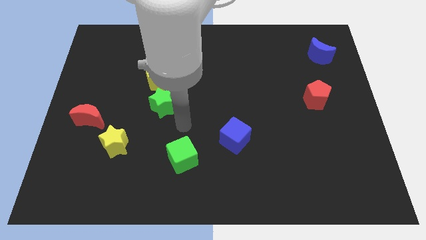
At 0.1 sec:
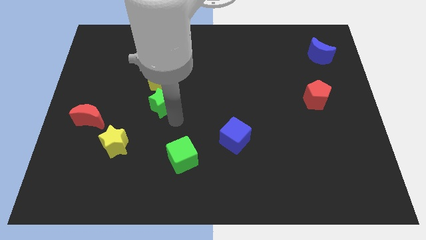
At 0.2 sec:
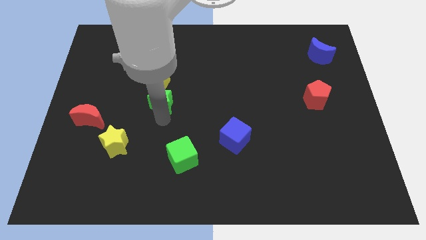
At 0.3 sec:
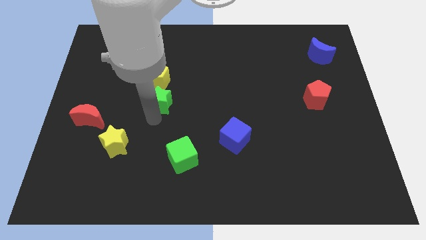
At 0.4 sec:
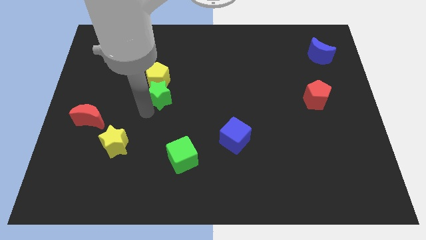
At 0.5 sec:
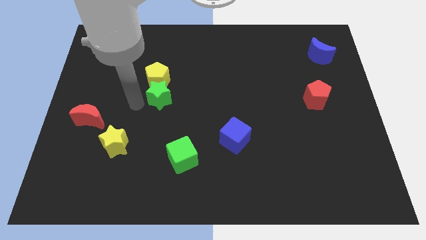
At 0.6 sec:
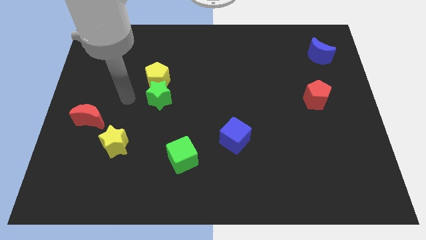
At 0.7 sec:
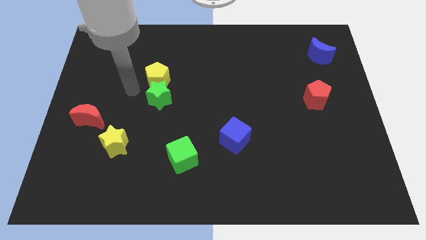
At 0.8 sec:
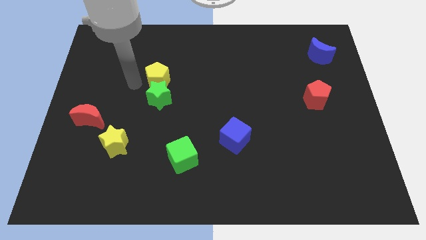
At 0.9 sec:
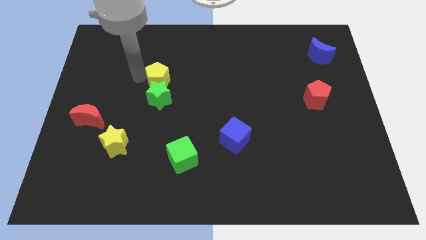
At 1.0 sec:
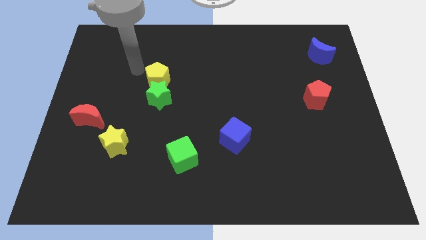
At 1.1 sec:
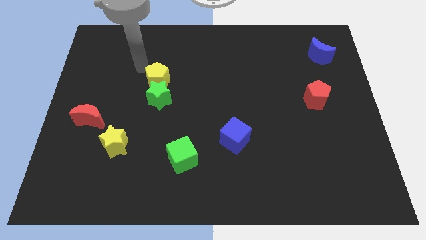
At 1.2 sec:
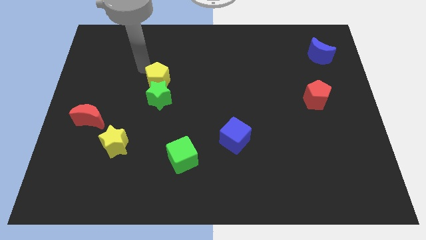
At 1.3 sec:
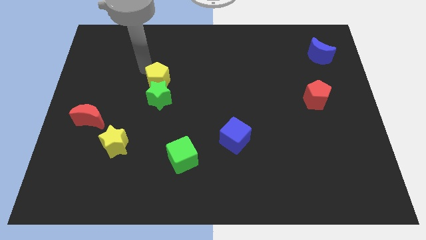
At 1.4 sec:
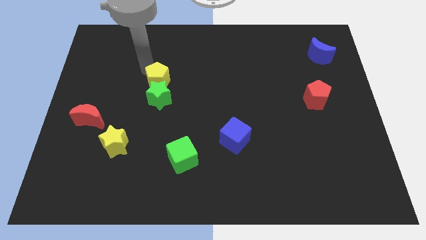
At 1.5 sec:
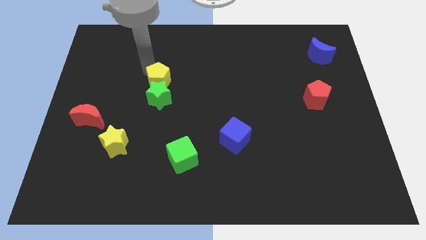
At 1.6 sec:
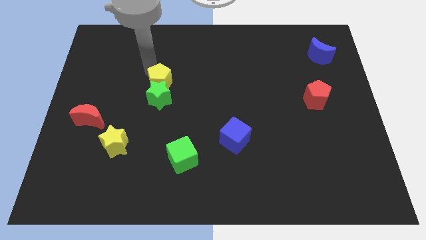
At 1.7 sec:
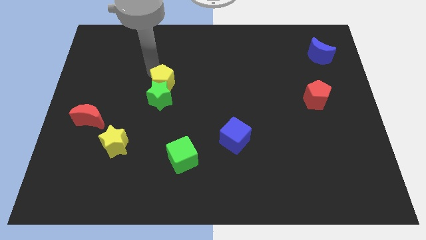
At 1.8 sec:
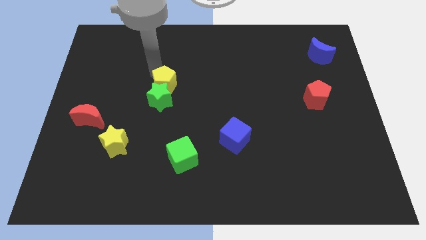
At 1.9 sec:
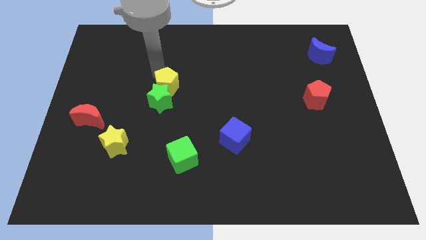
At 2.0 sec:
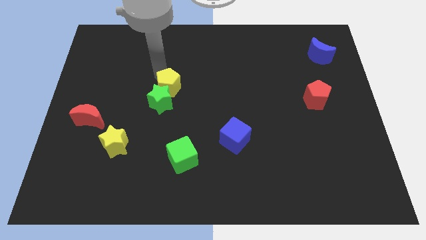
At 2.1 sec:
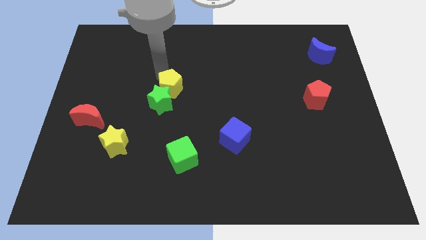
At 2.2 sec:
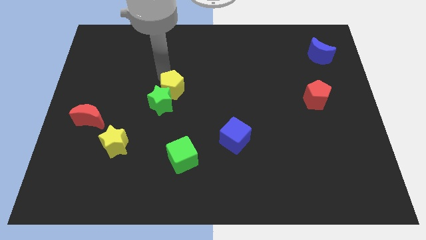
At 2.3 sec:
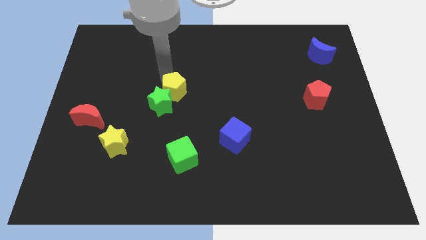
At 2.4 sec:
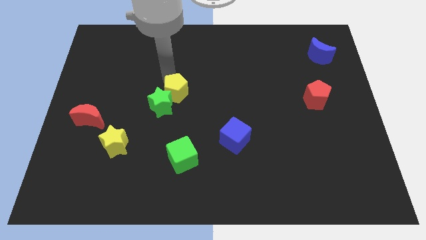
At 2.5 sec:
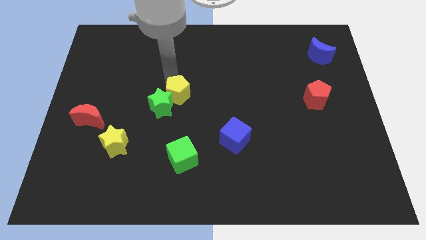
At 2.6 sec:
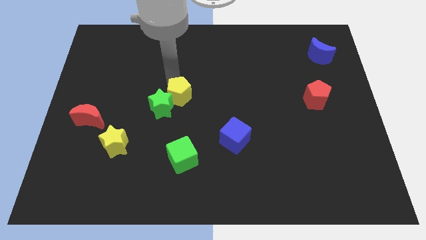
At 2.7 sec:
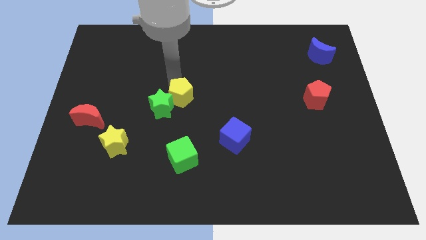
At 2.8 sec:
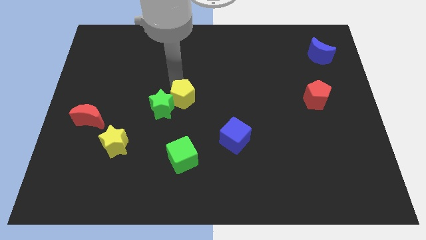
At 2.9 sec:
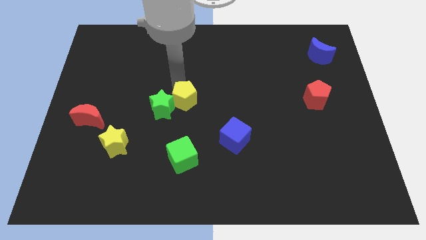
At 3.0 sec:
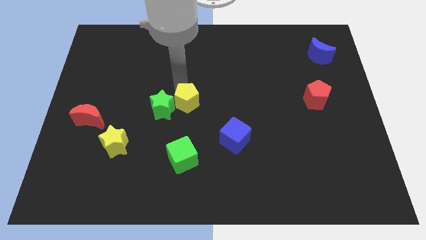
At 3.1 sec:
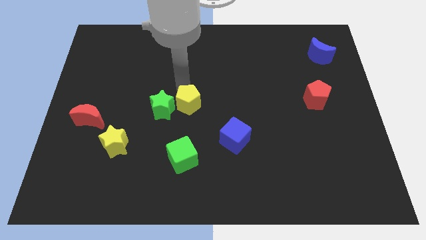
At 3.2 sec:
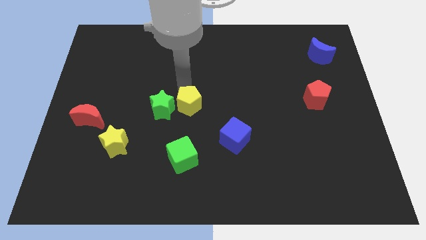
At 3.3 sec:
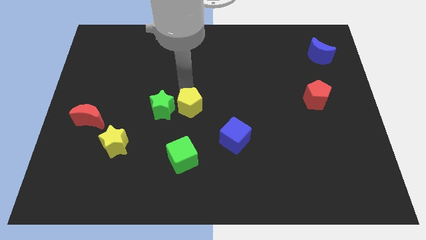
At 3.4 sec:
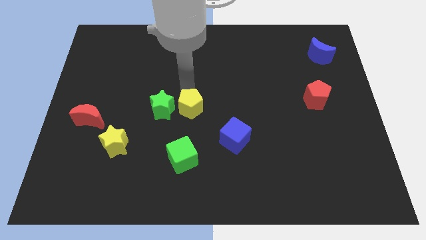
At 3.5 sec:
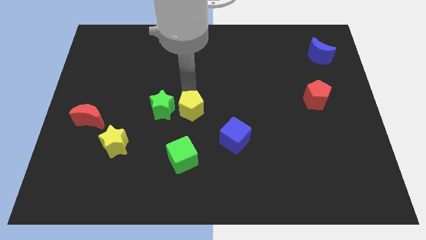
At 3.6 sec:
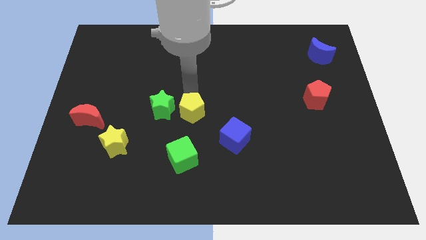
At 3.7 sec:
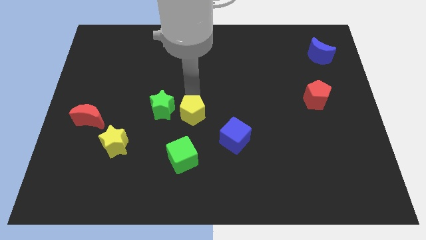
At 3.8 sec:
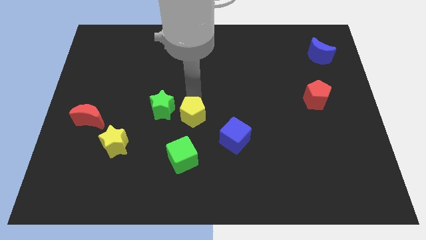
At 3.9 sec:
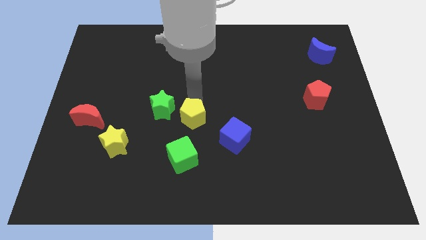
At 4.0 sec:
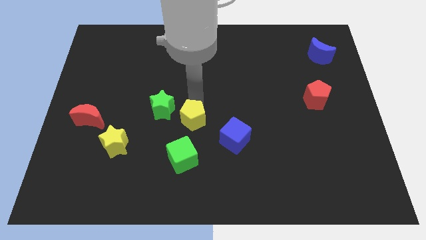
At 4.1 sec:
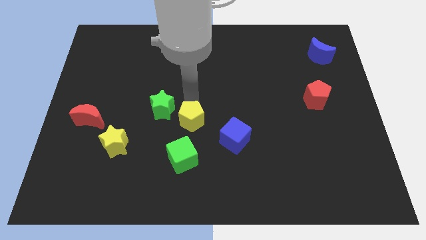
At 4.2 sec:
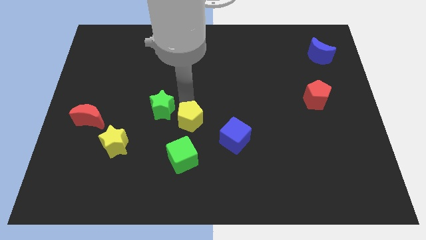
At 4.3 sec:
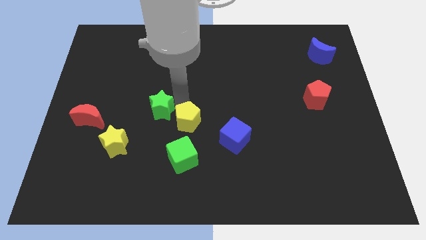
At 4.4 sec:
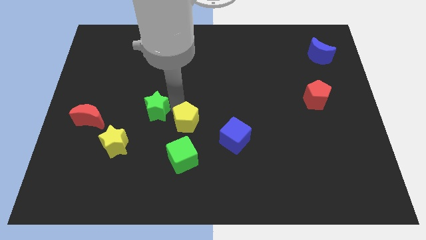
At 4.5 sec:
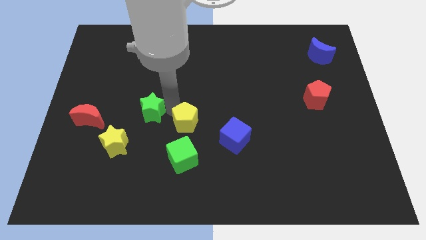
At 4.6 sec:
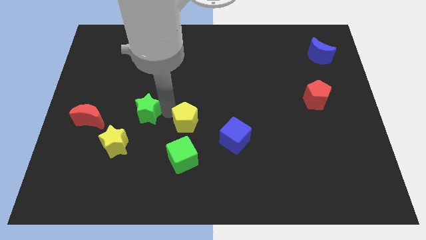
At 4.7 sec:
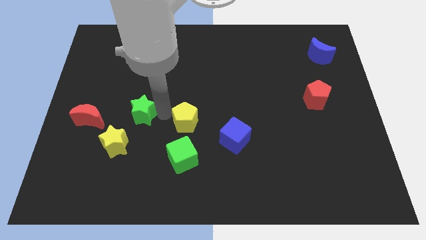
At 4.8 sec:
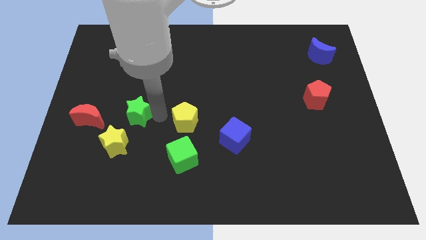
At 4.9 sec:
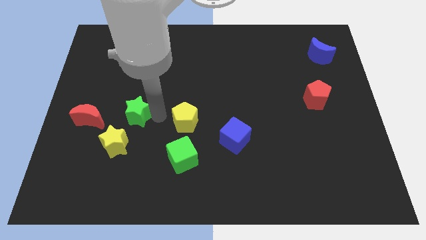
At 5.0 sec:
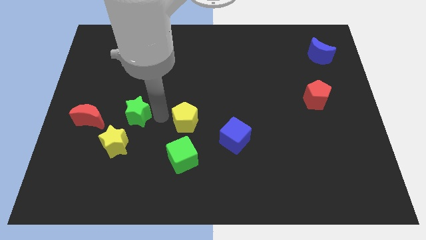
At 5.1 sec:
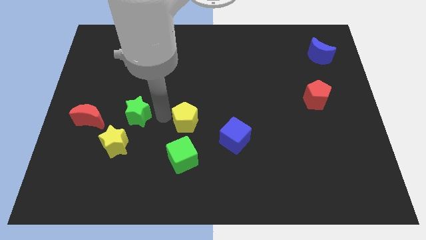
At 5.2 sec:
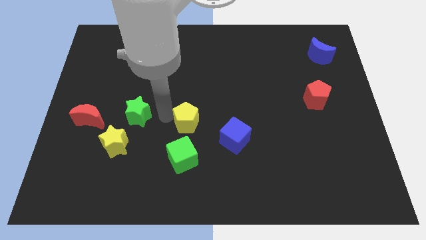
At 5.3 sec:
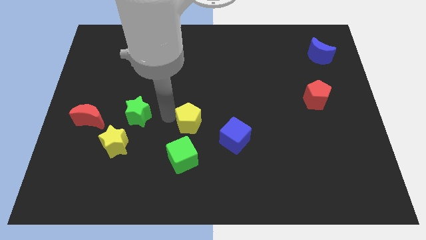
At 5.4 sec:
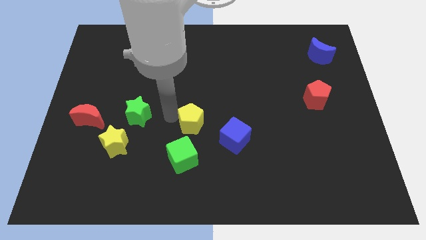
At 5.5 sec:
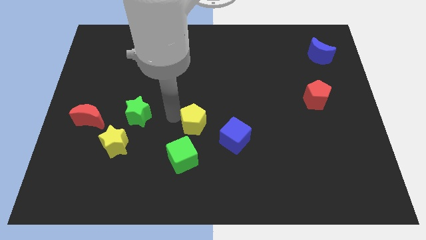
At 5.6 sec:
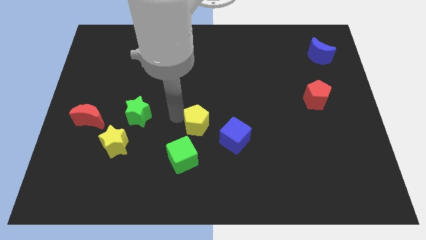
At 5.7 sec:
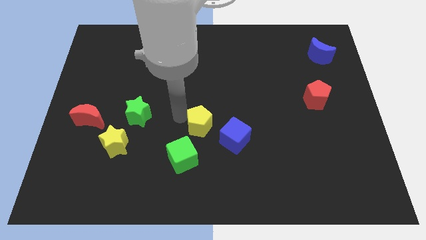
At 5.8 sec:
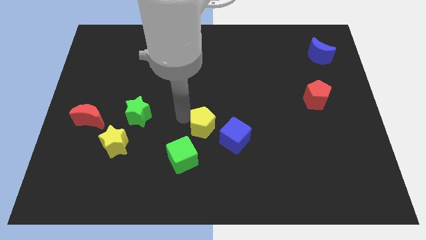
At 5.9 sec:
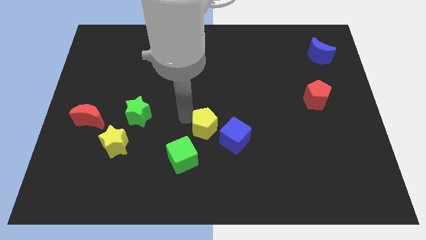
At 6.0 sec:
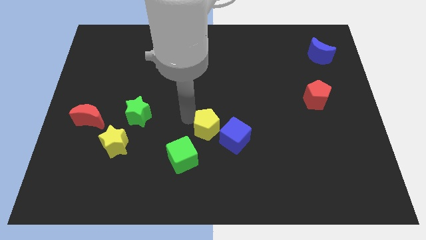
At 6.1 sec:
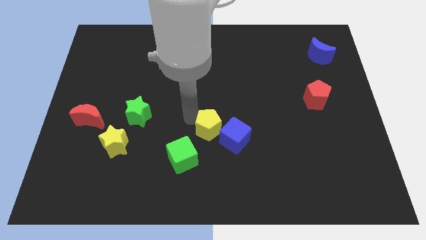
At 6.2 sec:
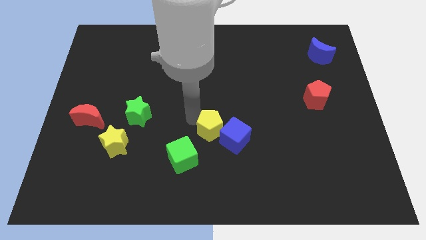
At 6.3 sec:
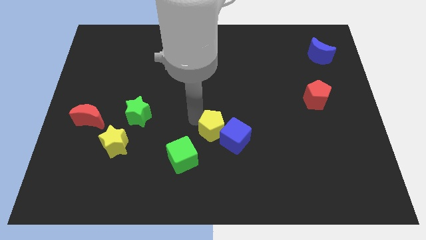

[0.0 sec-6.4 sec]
push the yellow pentagon downwards and then right

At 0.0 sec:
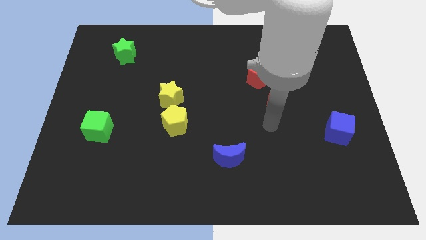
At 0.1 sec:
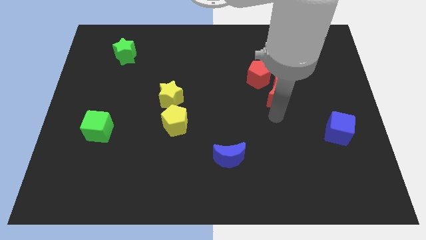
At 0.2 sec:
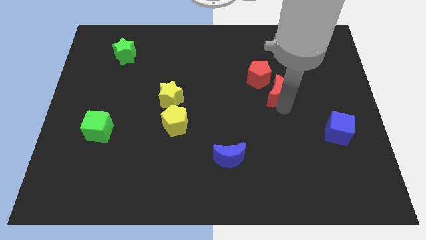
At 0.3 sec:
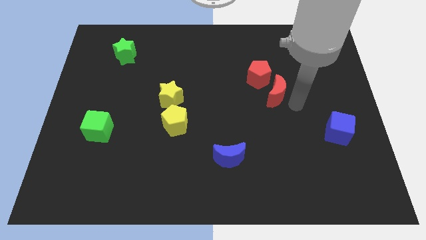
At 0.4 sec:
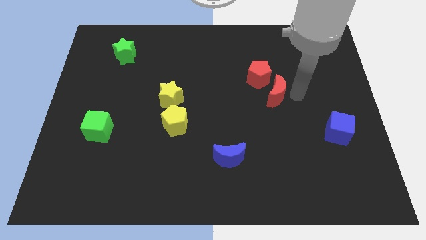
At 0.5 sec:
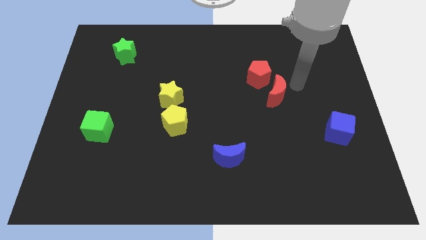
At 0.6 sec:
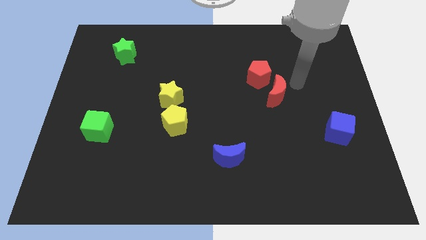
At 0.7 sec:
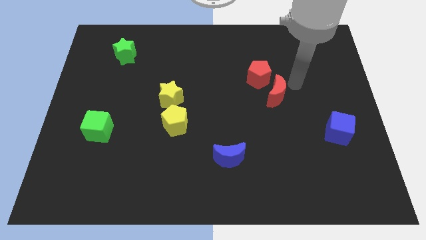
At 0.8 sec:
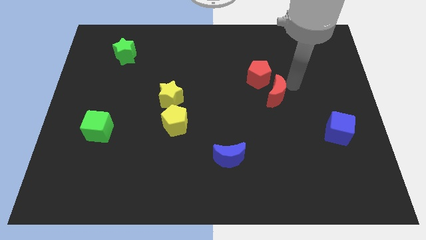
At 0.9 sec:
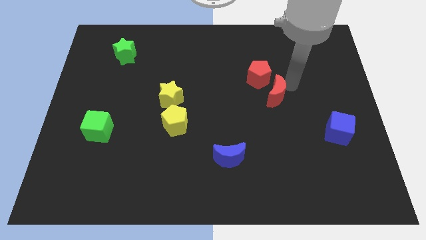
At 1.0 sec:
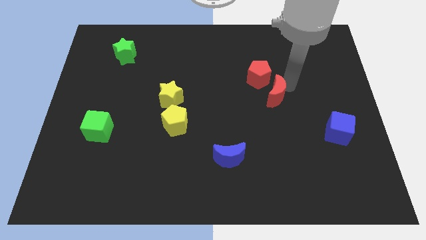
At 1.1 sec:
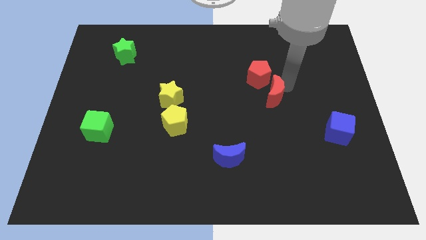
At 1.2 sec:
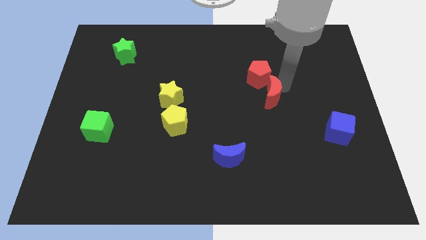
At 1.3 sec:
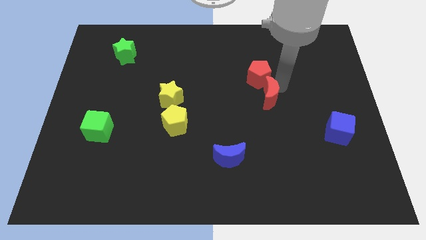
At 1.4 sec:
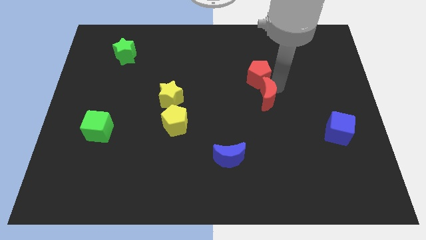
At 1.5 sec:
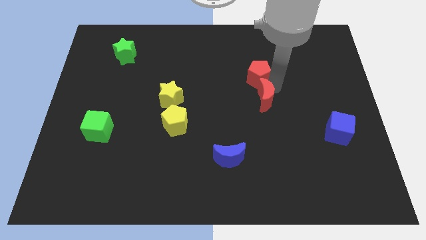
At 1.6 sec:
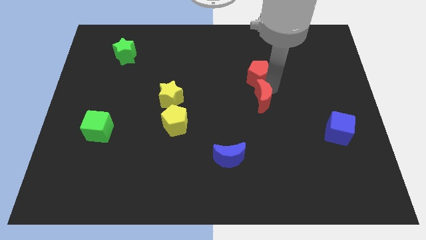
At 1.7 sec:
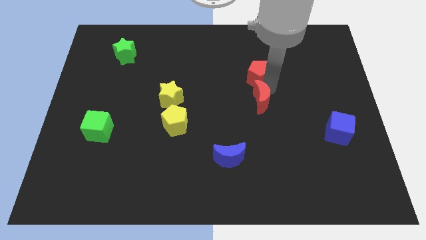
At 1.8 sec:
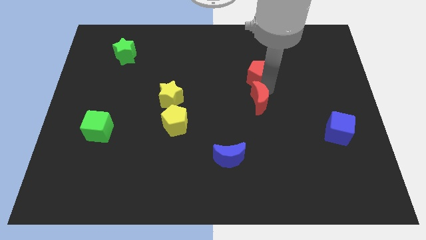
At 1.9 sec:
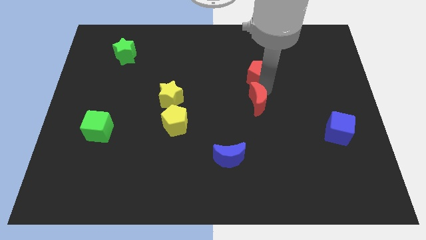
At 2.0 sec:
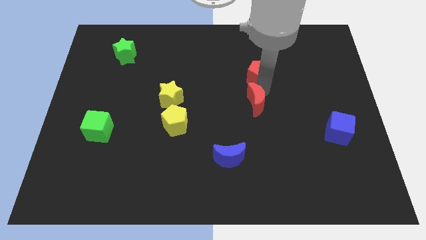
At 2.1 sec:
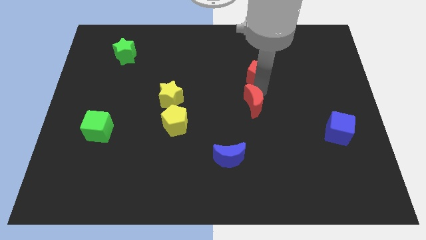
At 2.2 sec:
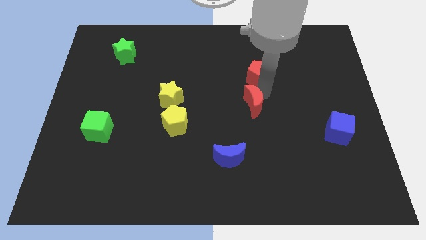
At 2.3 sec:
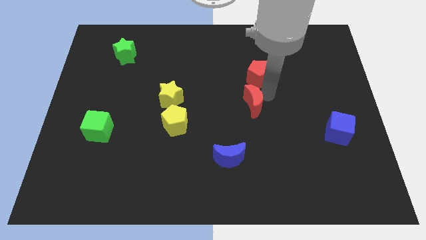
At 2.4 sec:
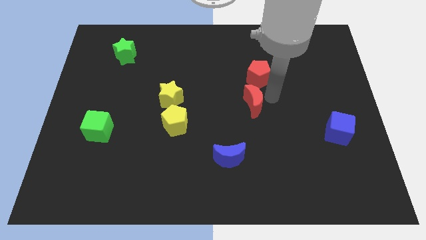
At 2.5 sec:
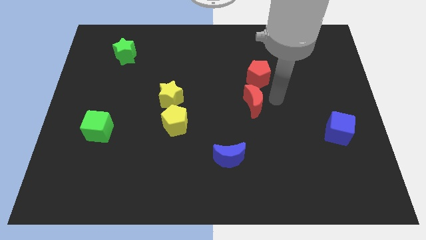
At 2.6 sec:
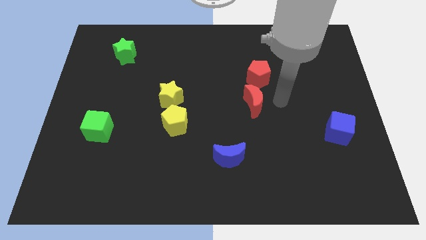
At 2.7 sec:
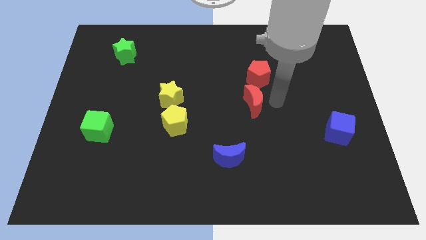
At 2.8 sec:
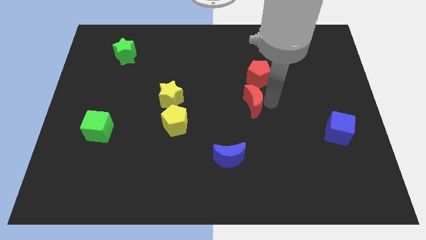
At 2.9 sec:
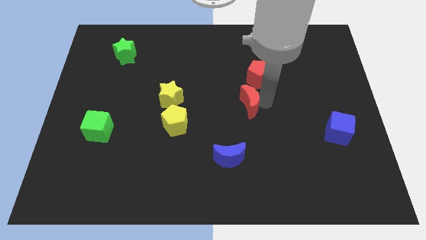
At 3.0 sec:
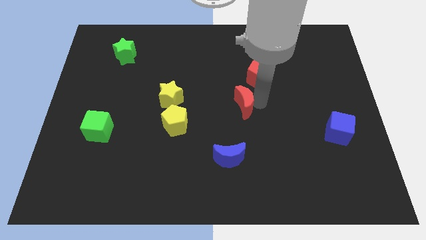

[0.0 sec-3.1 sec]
slightly push the red moon left
